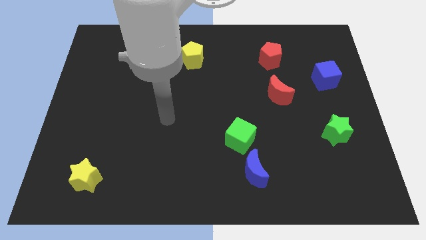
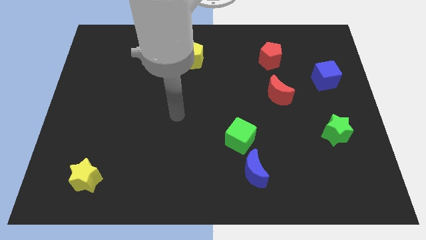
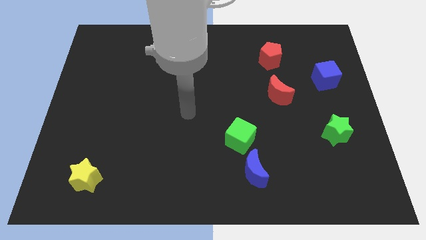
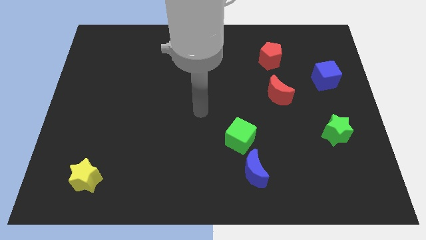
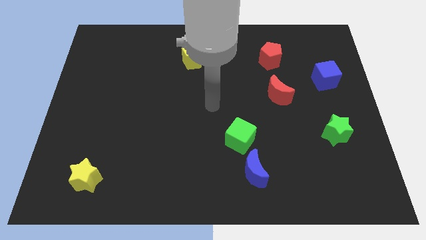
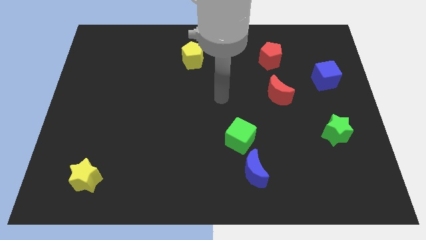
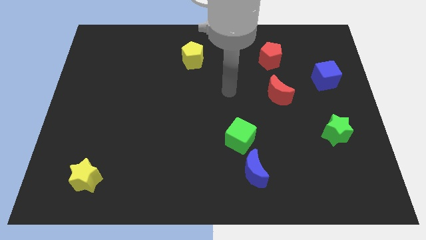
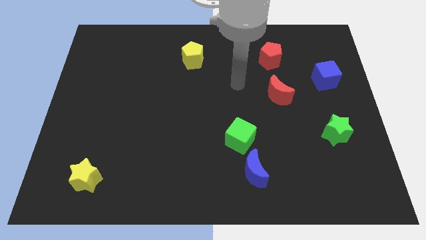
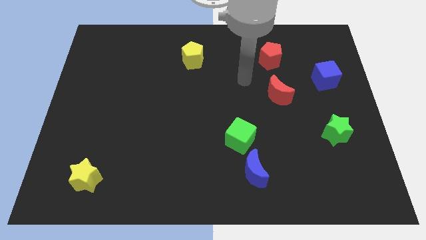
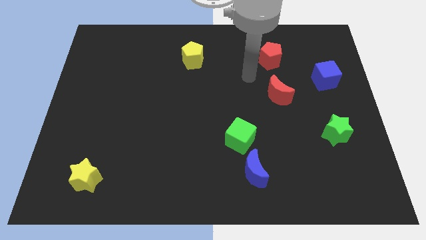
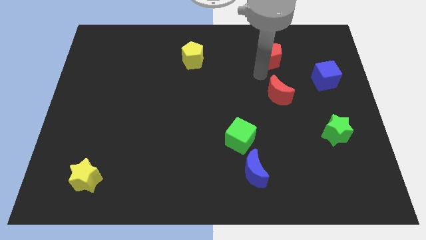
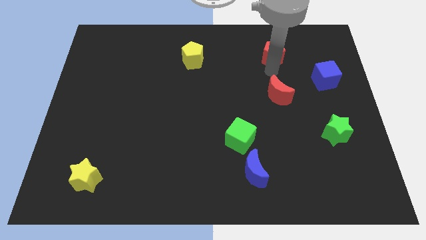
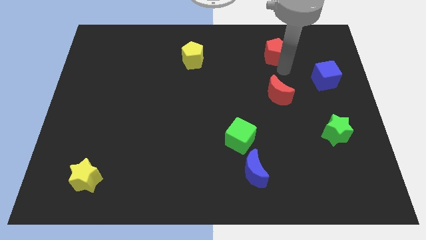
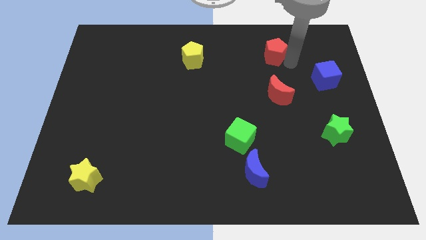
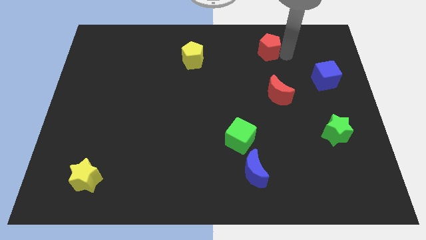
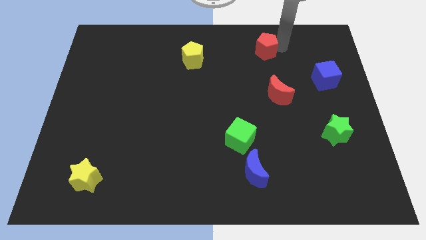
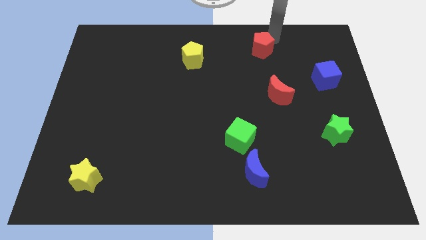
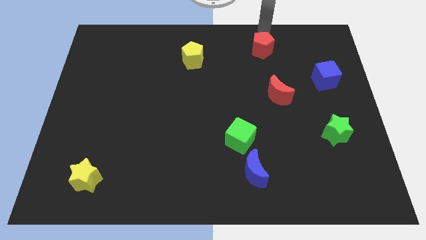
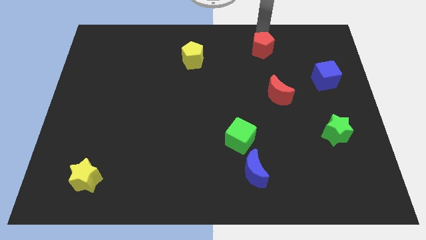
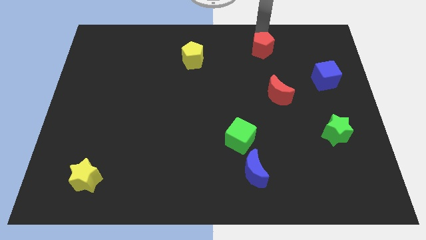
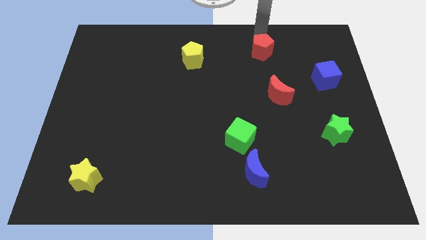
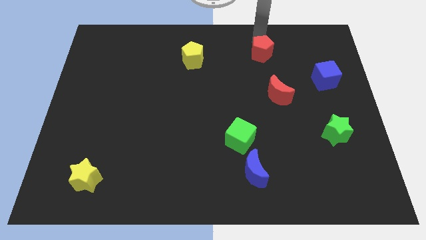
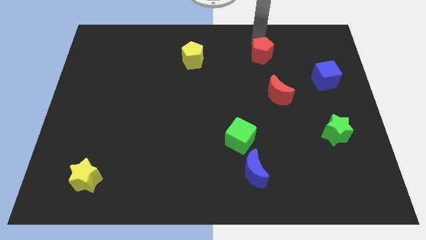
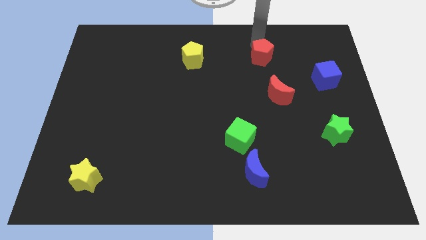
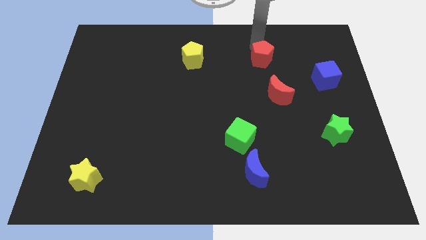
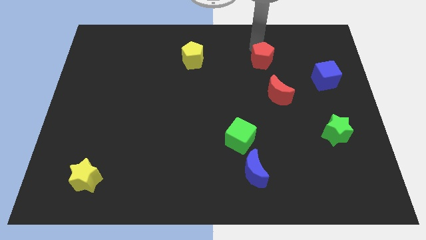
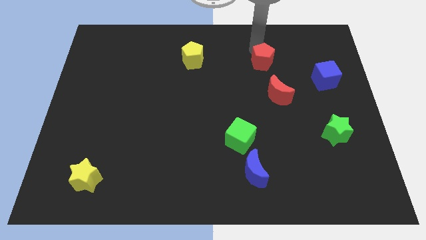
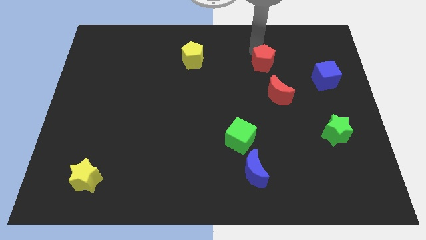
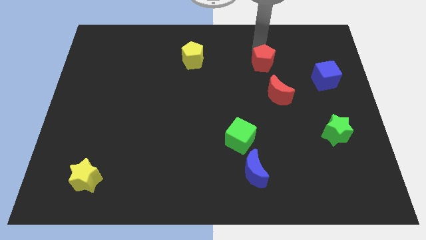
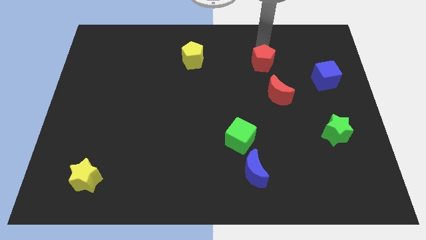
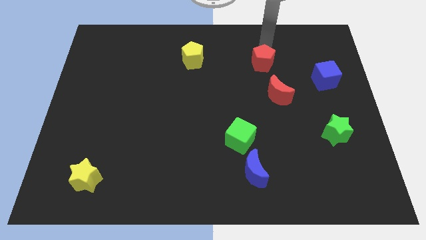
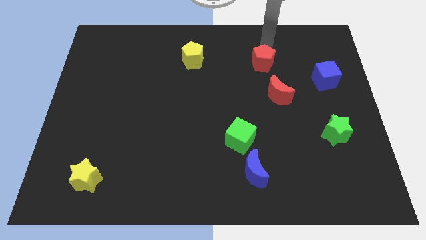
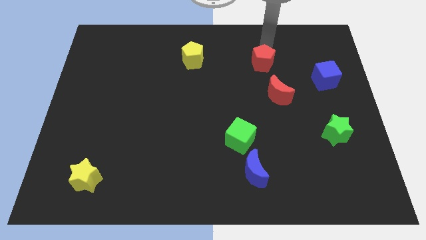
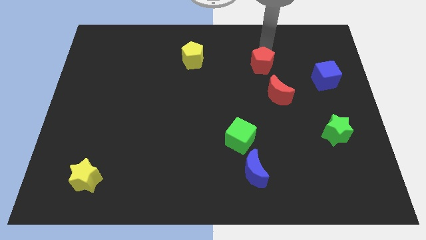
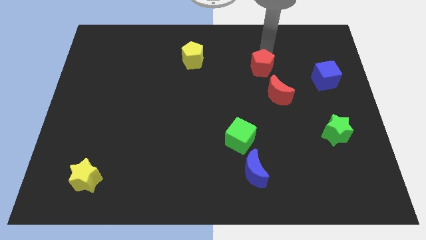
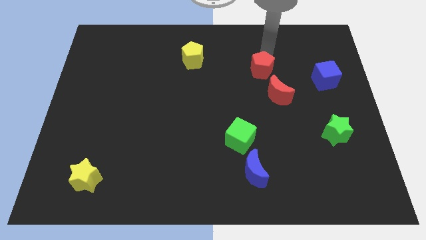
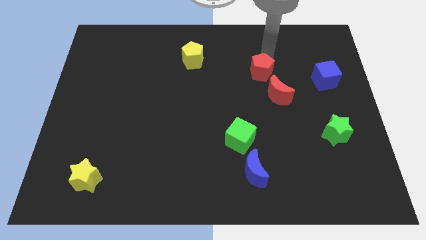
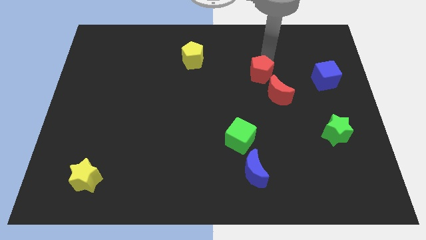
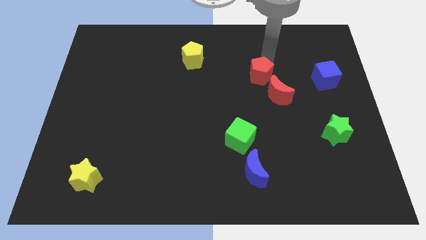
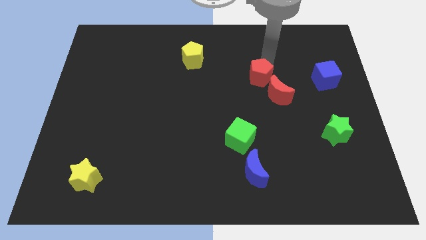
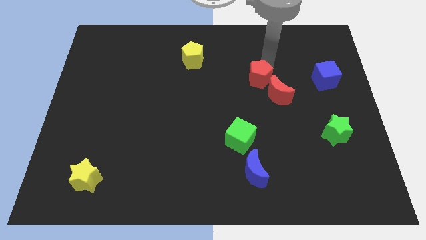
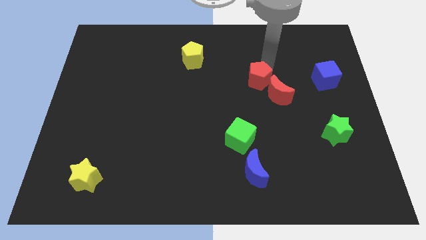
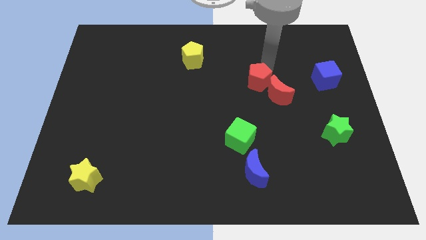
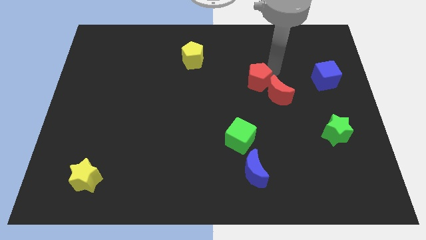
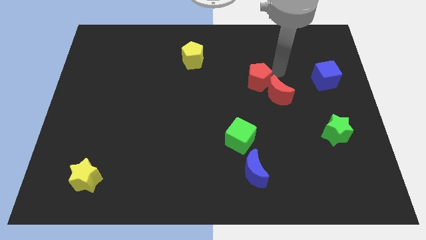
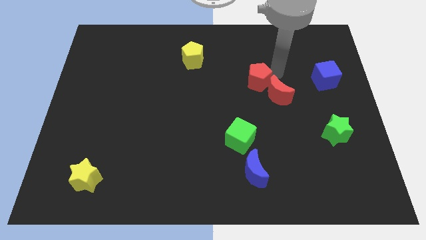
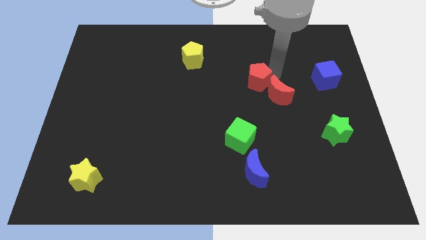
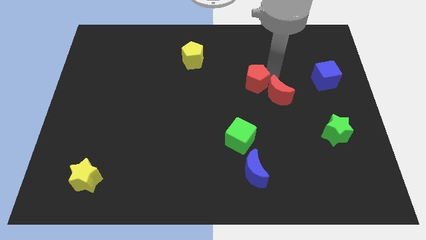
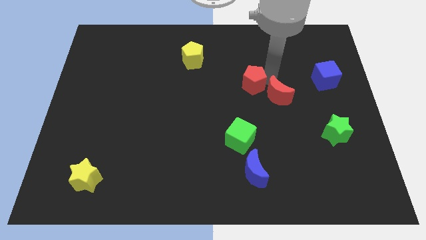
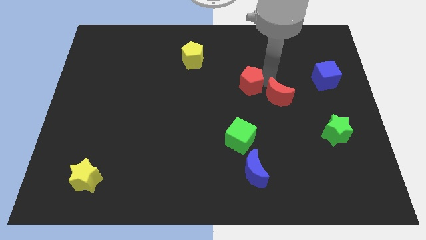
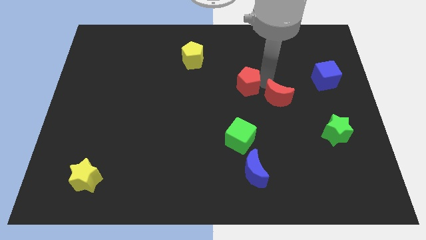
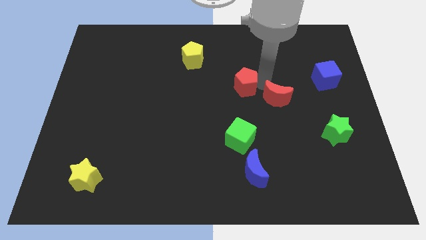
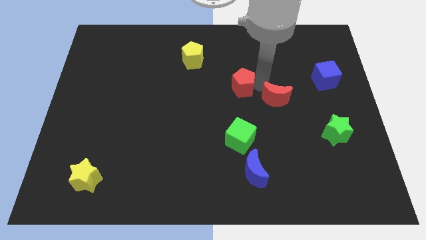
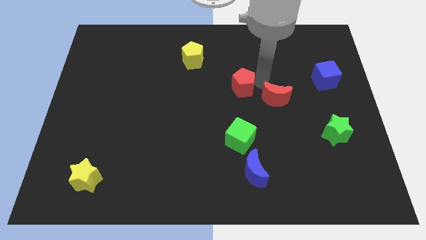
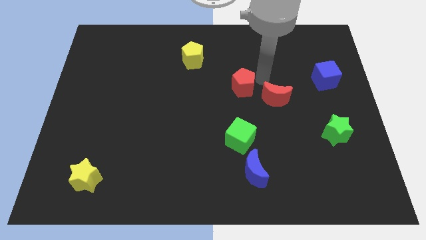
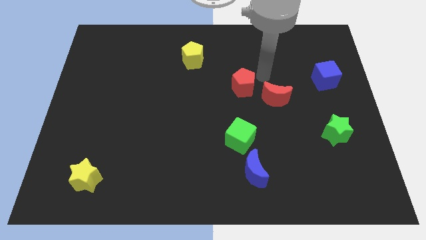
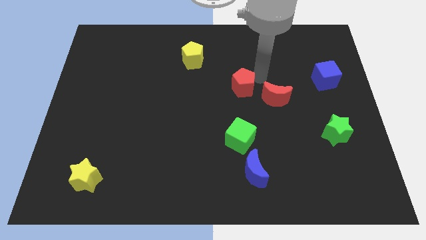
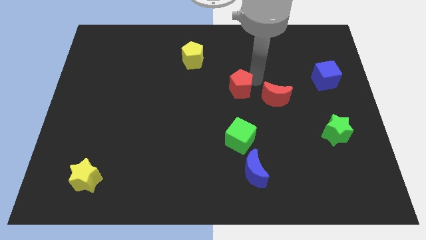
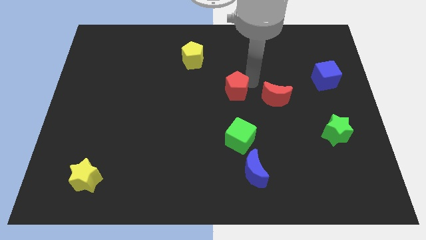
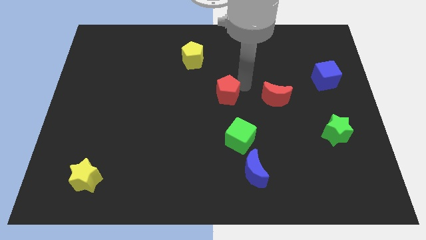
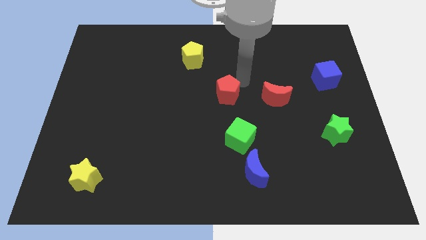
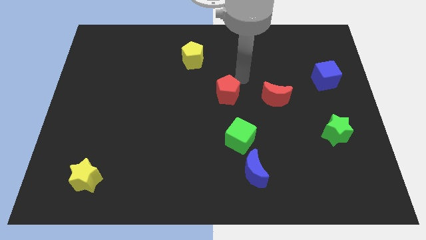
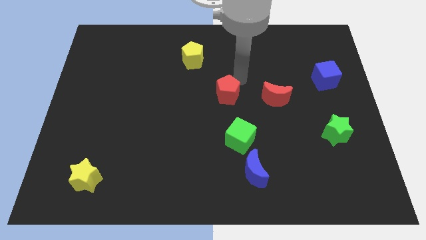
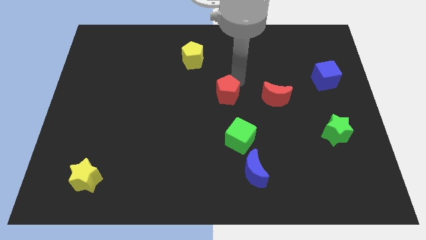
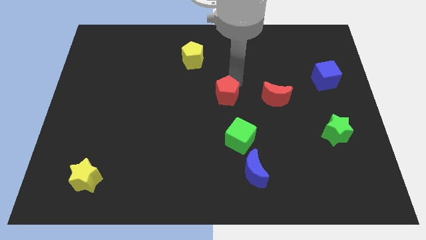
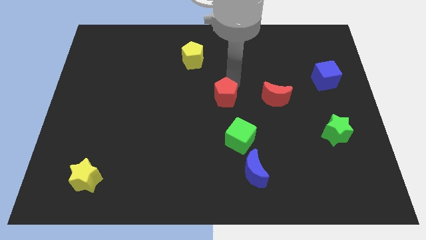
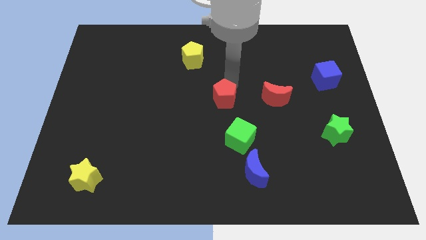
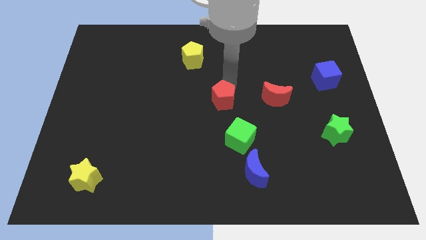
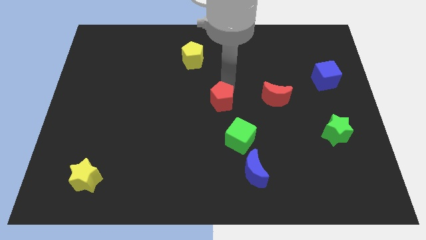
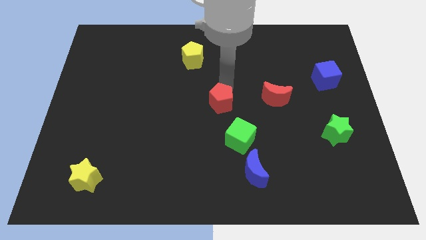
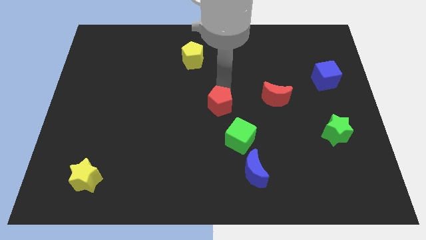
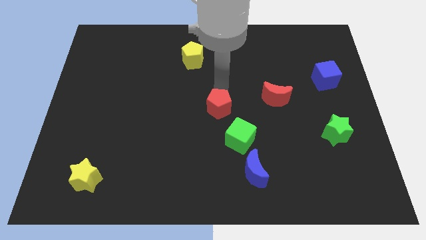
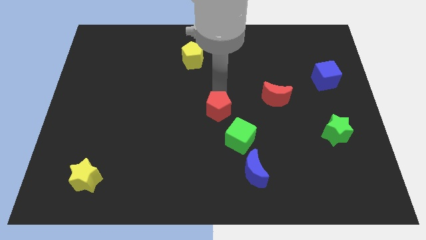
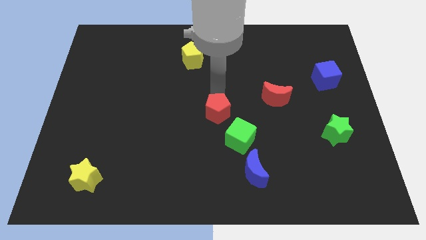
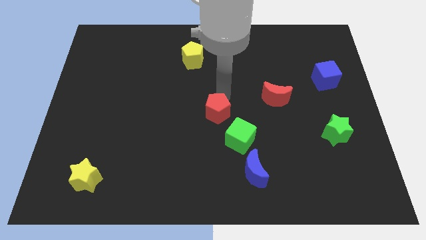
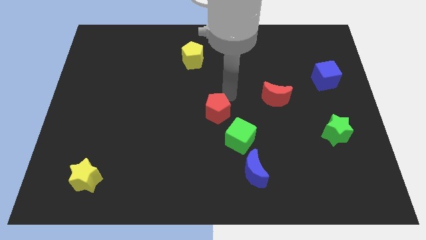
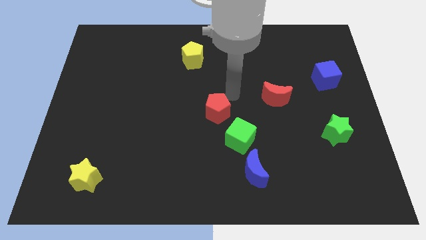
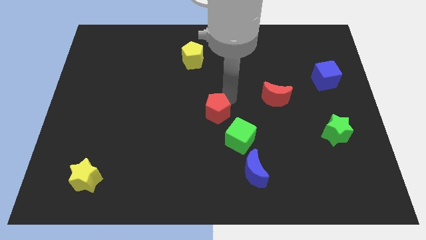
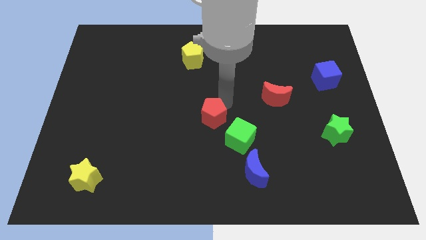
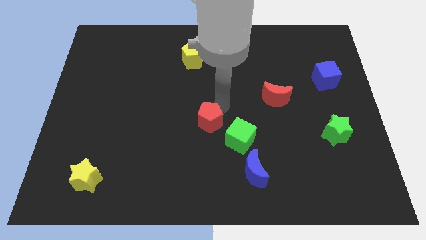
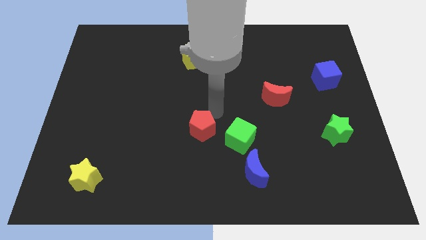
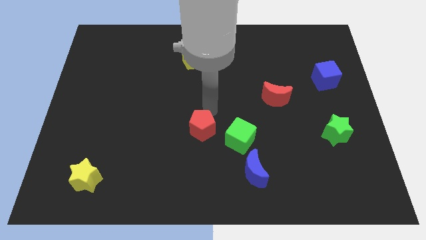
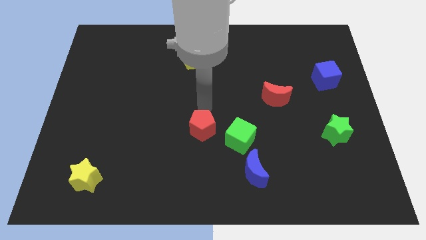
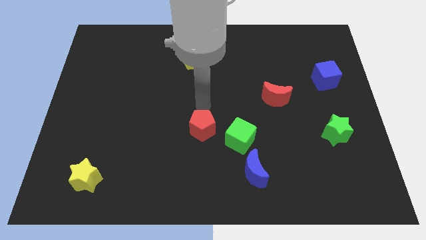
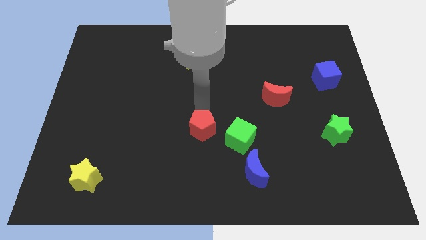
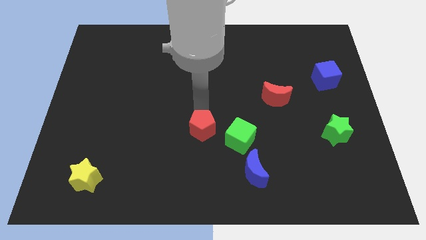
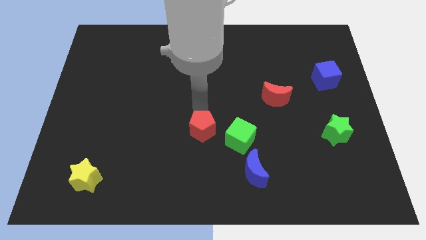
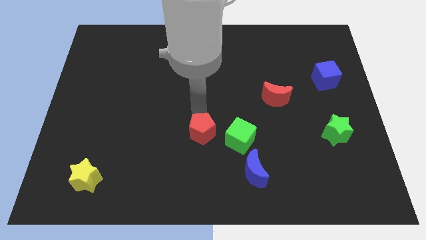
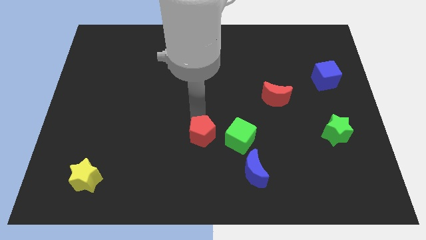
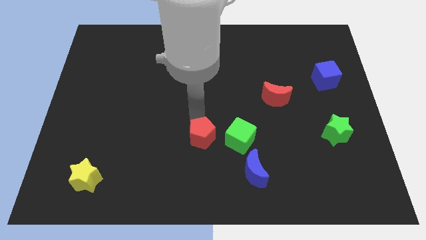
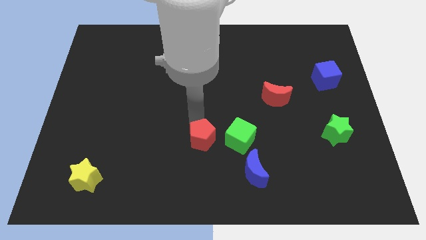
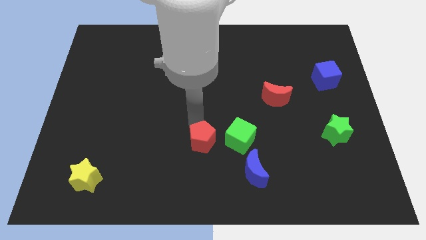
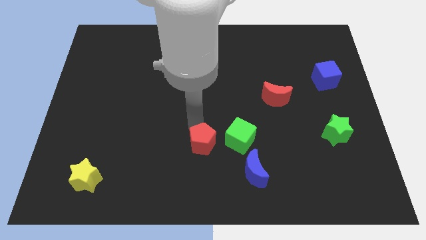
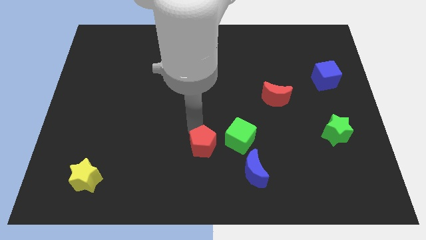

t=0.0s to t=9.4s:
slide the red pentagon to the bottom left side of the green cube
